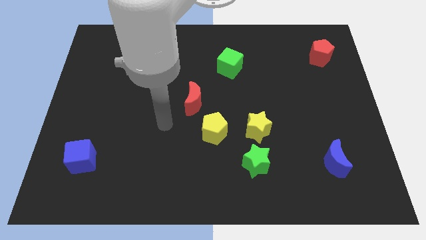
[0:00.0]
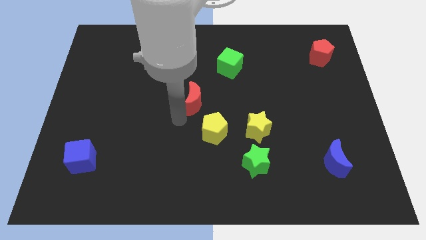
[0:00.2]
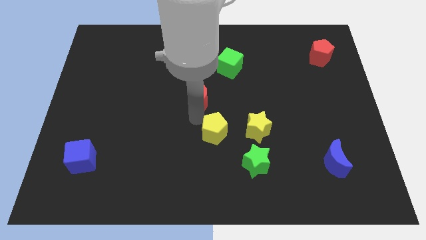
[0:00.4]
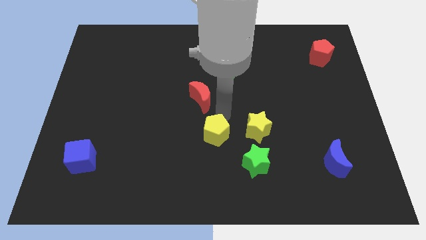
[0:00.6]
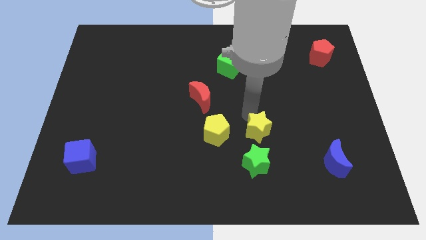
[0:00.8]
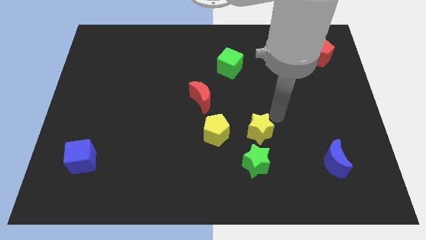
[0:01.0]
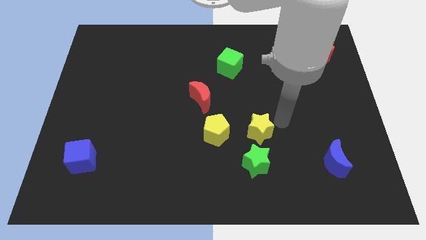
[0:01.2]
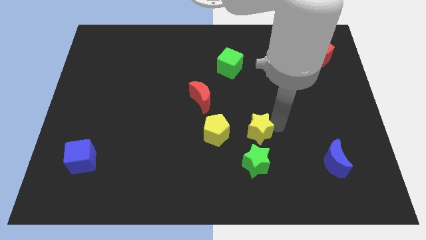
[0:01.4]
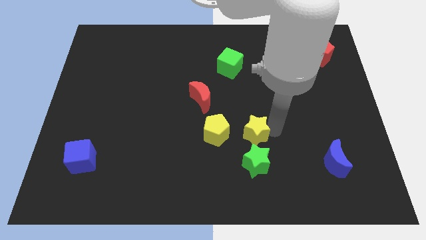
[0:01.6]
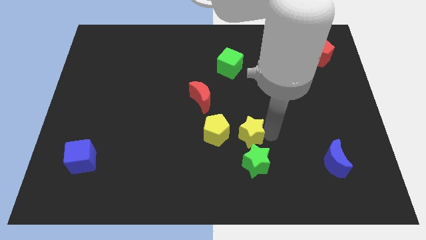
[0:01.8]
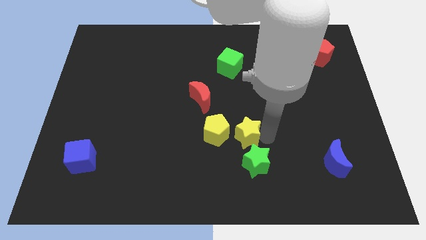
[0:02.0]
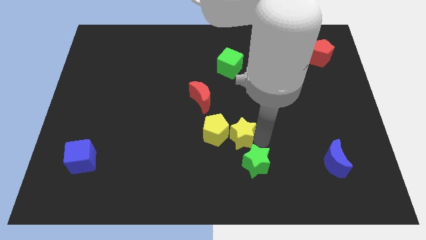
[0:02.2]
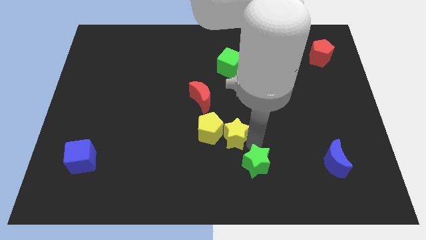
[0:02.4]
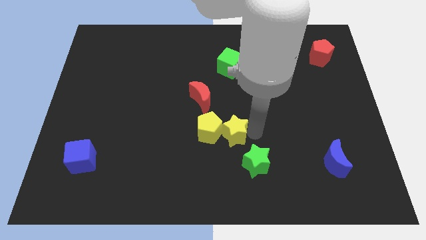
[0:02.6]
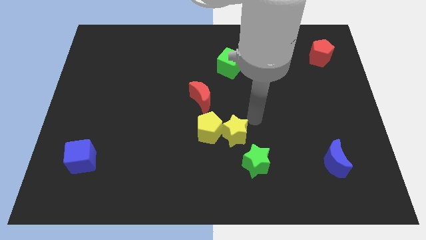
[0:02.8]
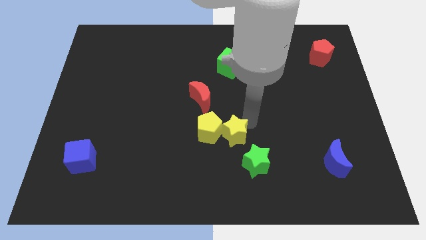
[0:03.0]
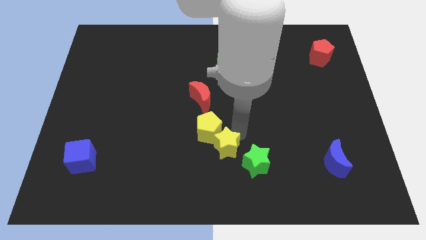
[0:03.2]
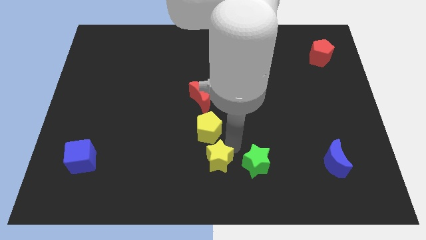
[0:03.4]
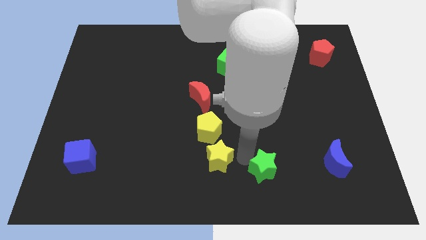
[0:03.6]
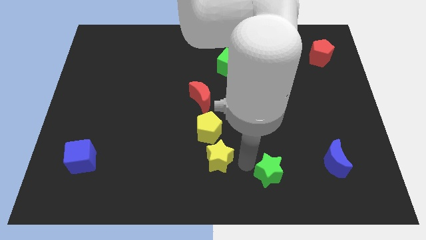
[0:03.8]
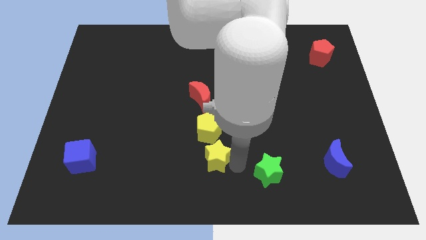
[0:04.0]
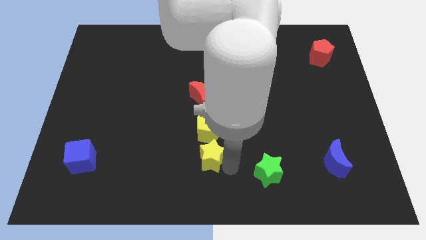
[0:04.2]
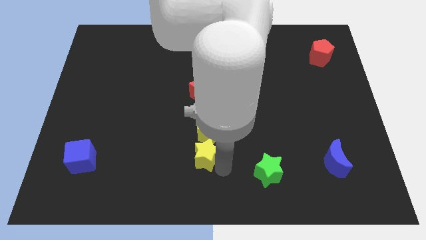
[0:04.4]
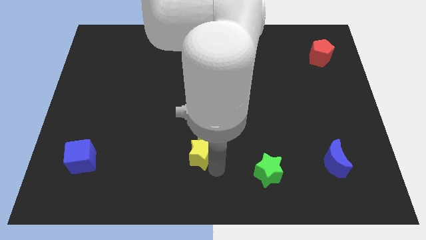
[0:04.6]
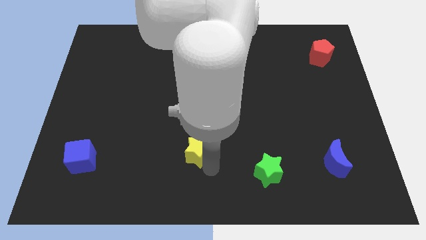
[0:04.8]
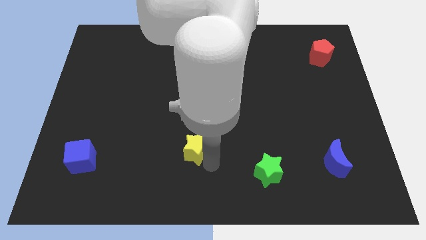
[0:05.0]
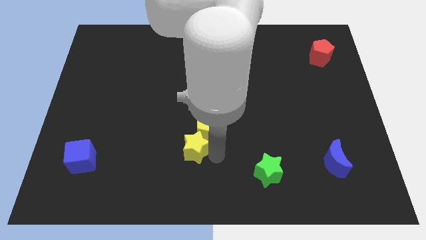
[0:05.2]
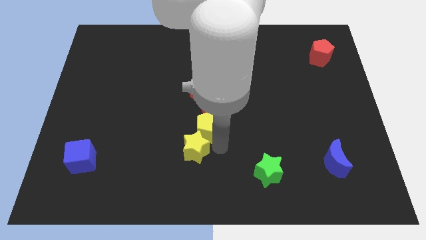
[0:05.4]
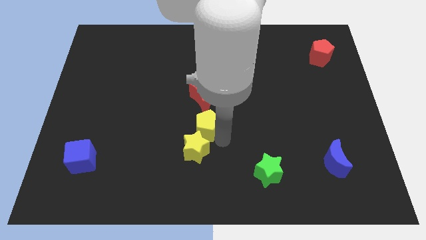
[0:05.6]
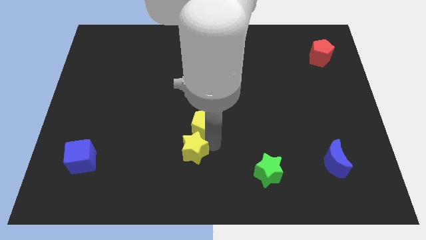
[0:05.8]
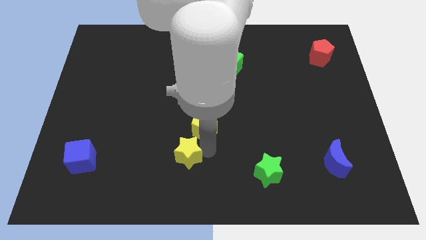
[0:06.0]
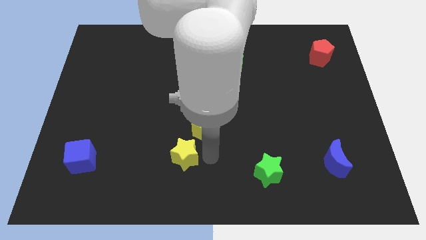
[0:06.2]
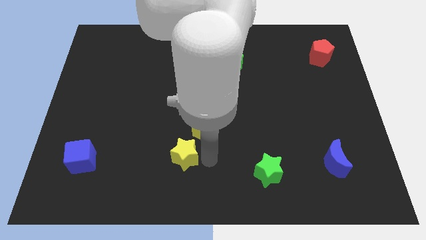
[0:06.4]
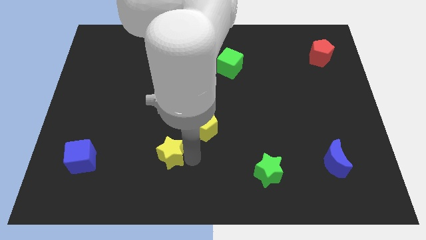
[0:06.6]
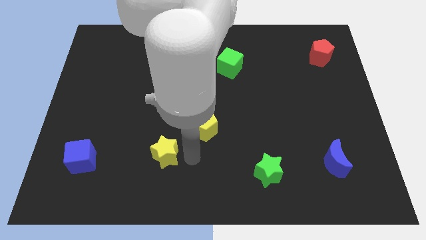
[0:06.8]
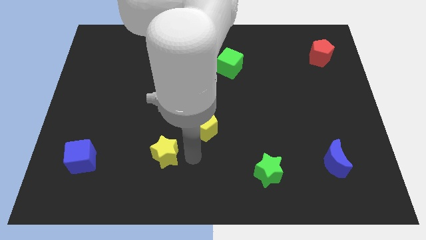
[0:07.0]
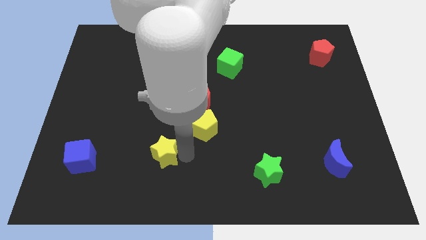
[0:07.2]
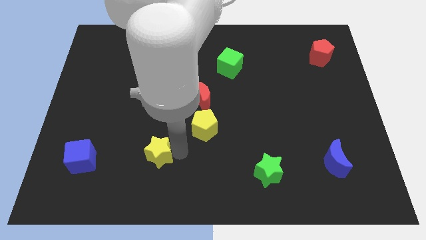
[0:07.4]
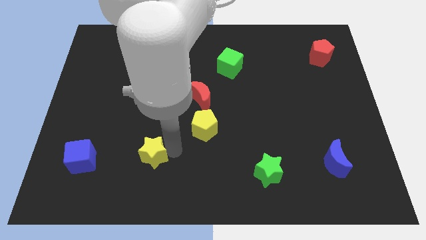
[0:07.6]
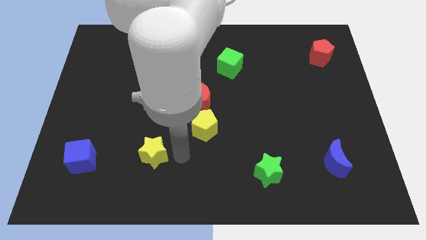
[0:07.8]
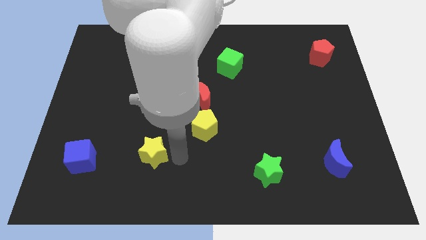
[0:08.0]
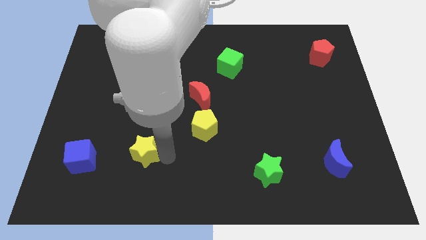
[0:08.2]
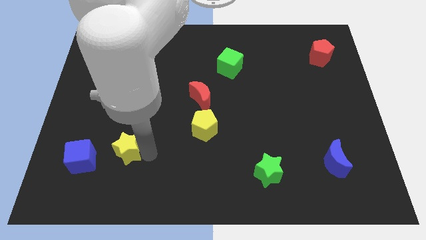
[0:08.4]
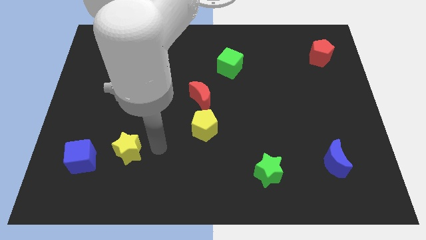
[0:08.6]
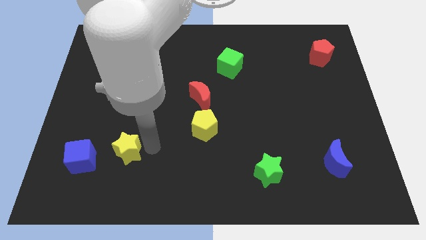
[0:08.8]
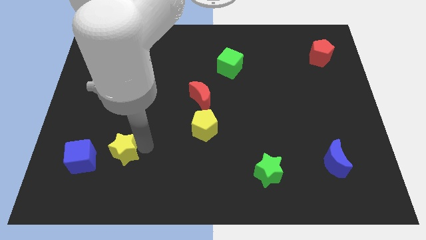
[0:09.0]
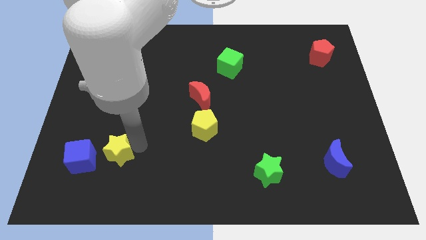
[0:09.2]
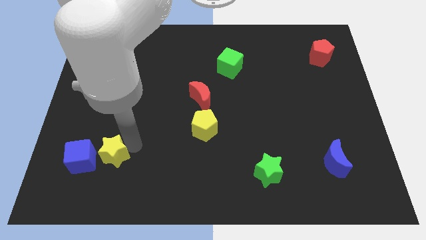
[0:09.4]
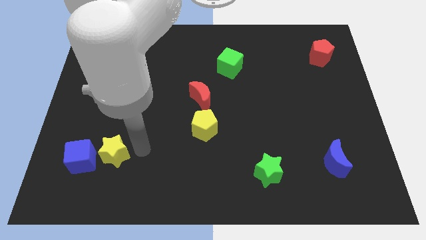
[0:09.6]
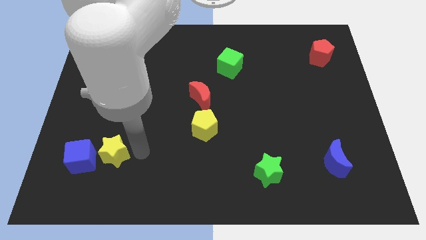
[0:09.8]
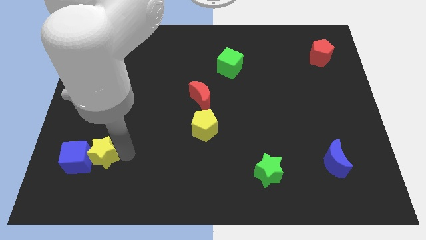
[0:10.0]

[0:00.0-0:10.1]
push the yellow star towards the blue cube

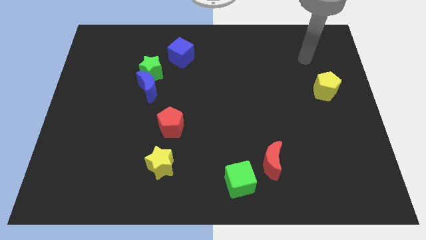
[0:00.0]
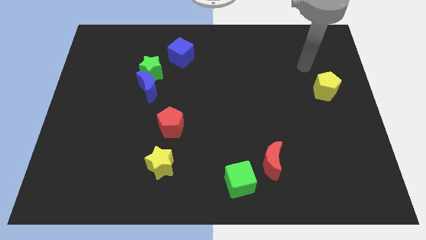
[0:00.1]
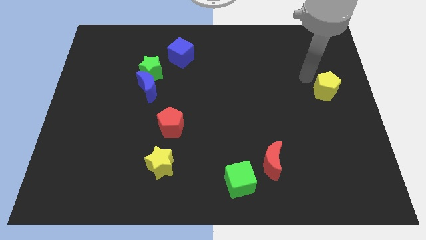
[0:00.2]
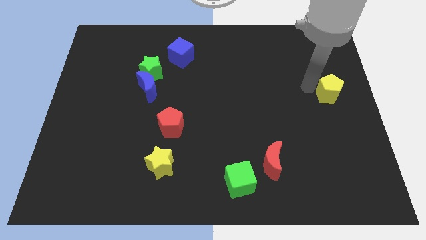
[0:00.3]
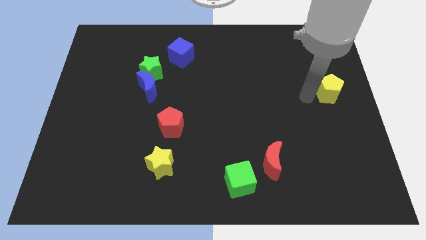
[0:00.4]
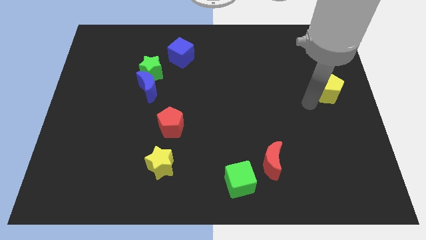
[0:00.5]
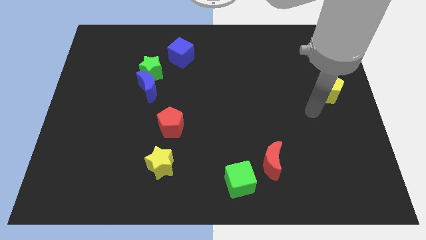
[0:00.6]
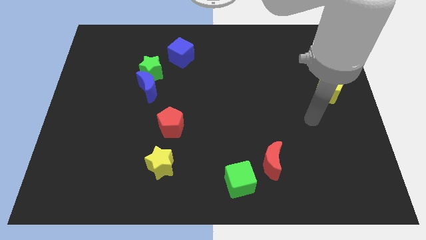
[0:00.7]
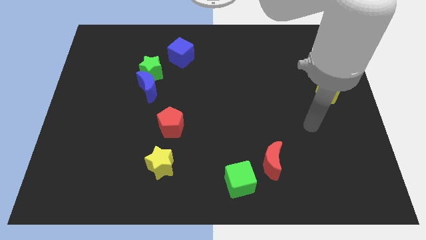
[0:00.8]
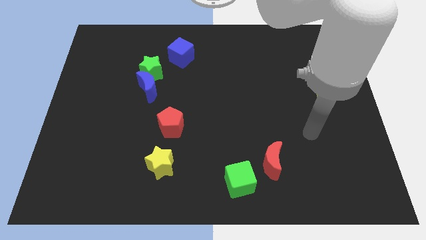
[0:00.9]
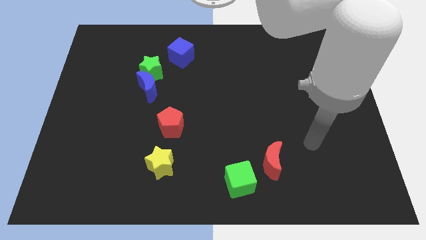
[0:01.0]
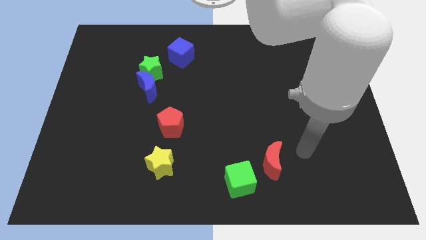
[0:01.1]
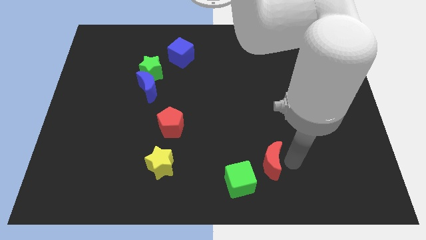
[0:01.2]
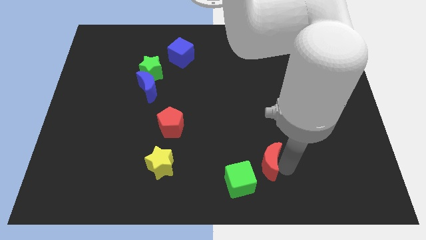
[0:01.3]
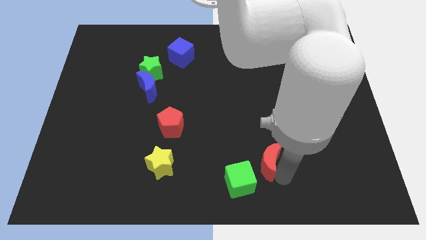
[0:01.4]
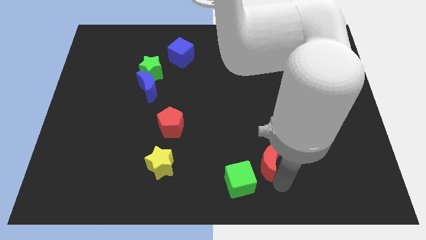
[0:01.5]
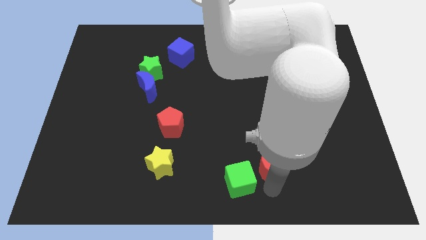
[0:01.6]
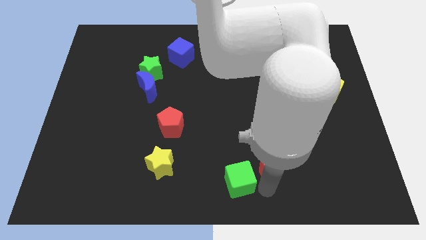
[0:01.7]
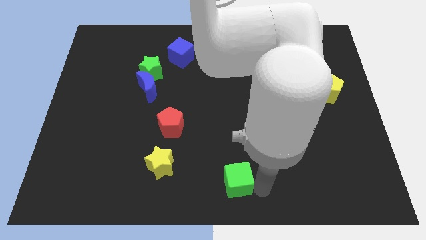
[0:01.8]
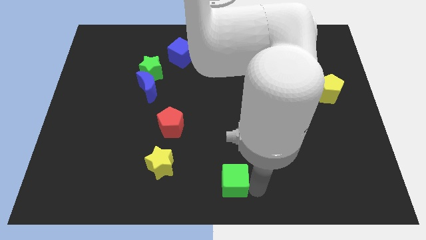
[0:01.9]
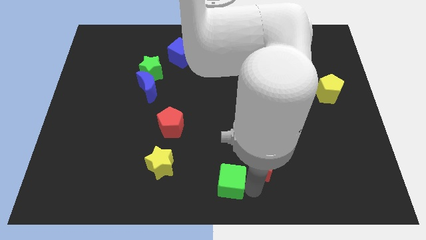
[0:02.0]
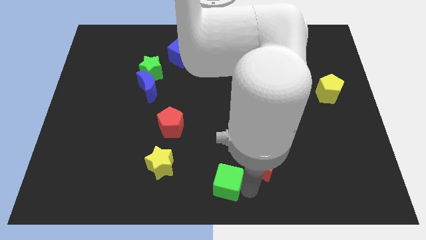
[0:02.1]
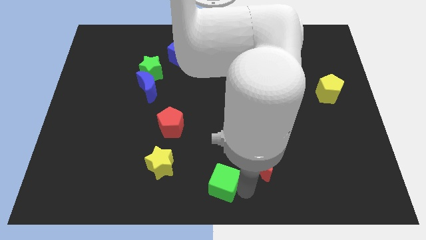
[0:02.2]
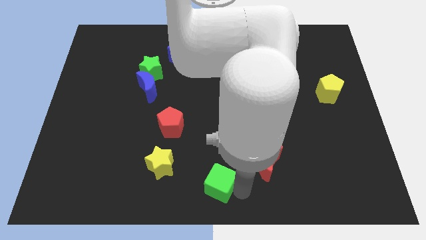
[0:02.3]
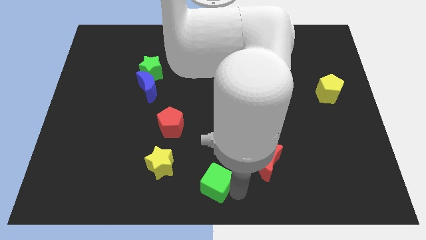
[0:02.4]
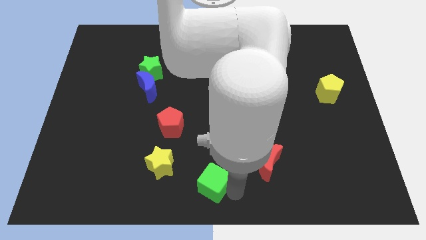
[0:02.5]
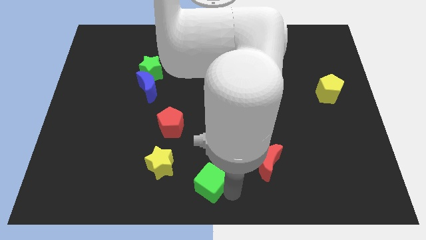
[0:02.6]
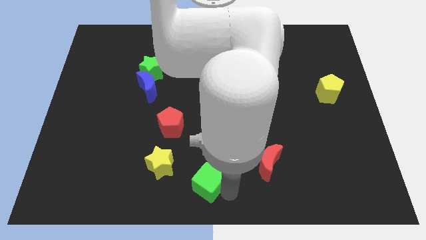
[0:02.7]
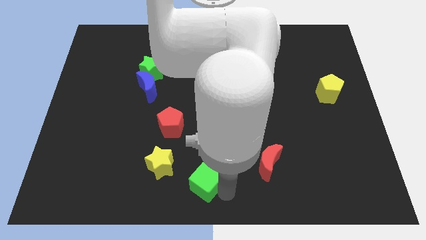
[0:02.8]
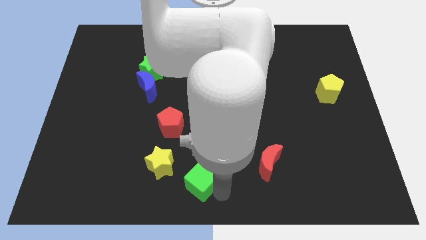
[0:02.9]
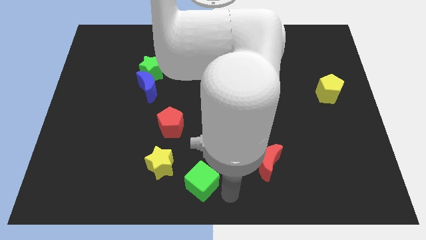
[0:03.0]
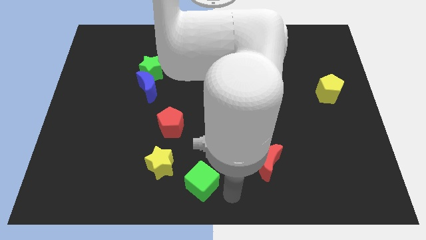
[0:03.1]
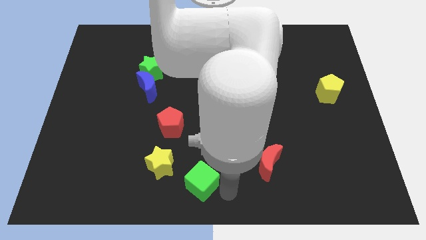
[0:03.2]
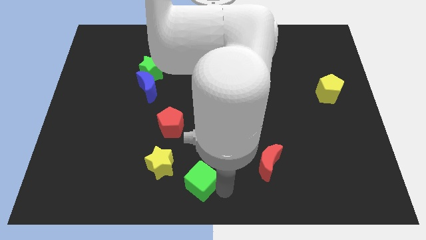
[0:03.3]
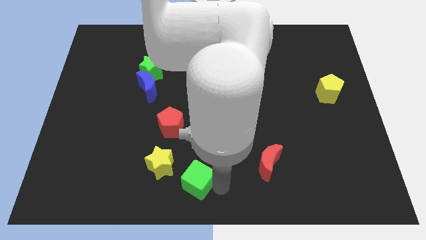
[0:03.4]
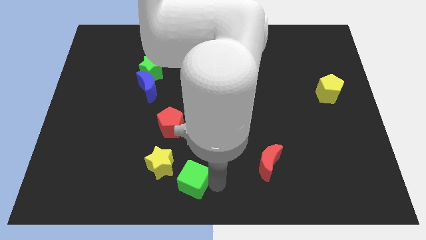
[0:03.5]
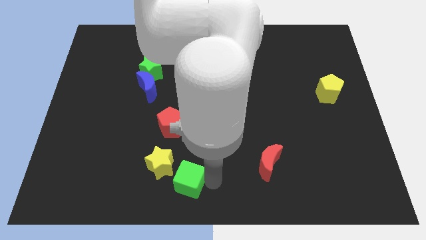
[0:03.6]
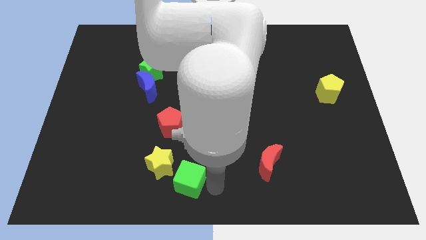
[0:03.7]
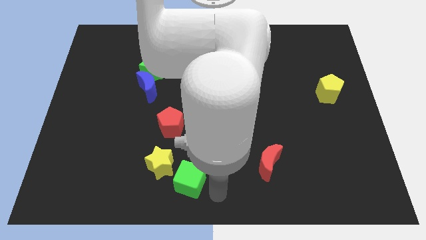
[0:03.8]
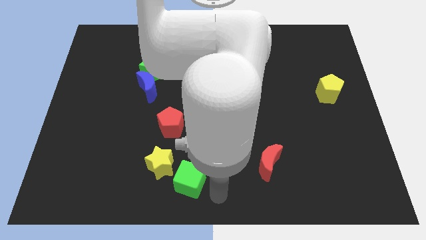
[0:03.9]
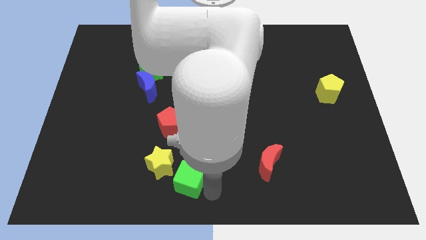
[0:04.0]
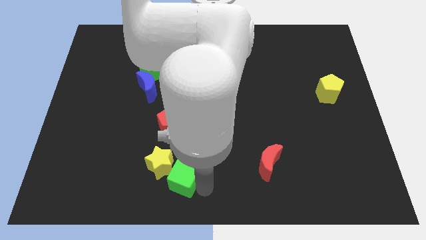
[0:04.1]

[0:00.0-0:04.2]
put the green cube next to the yellow star
